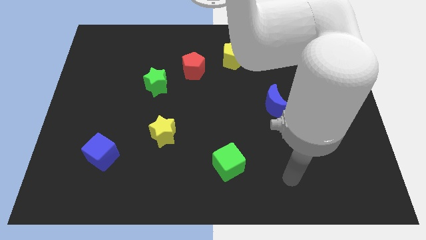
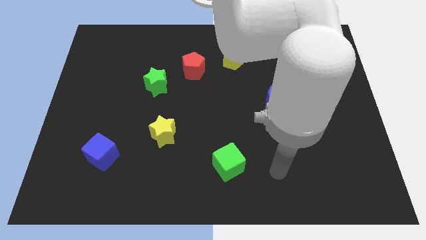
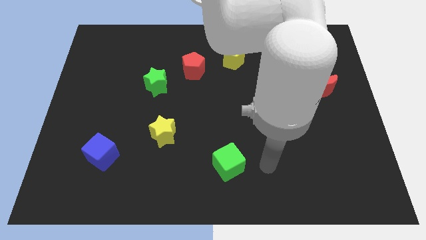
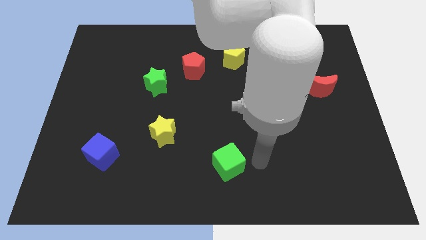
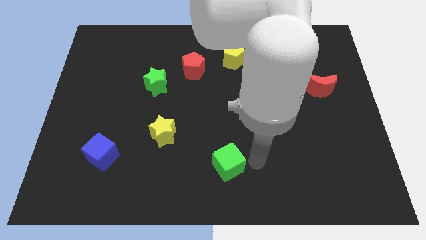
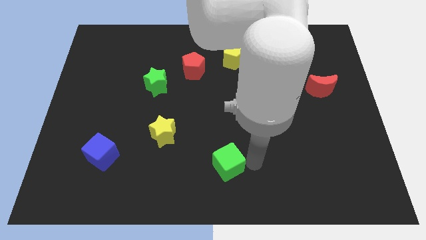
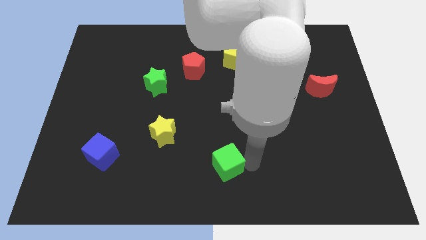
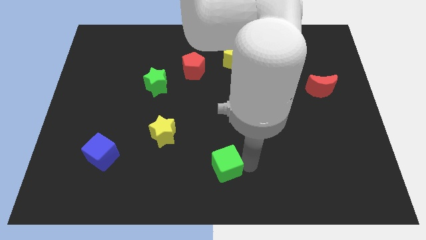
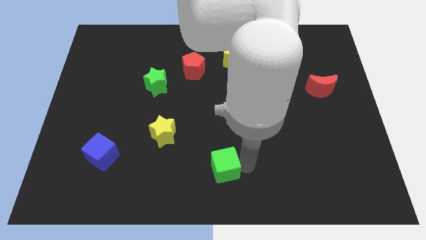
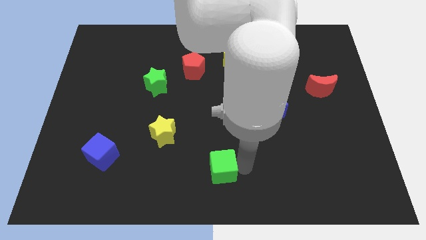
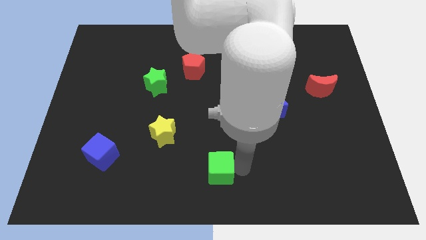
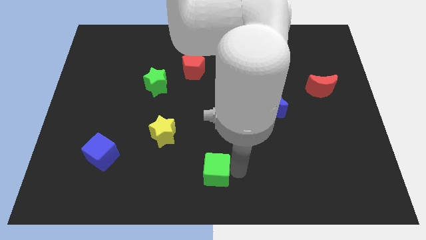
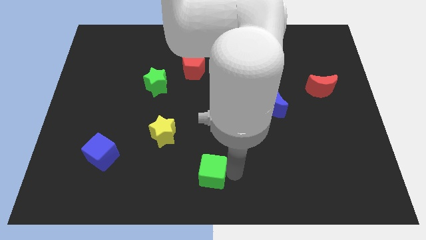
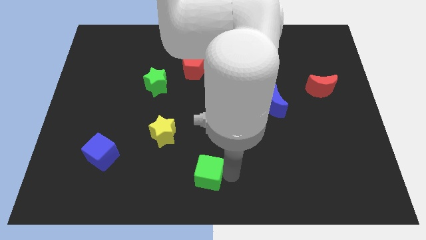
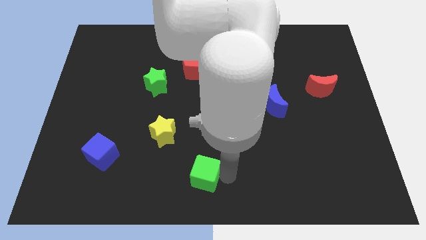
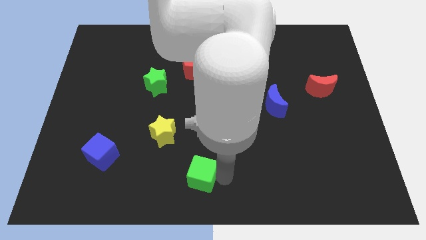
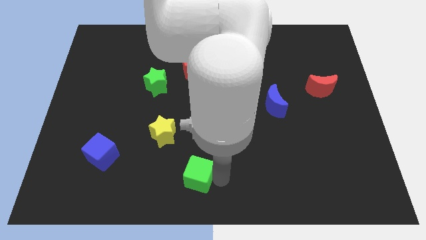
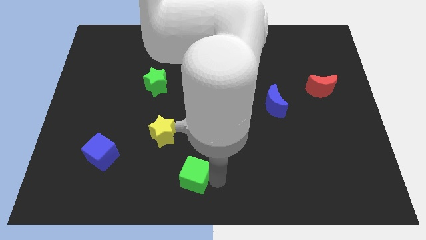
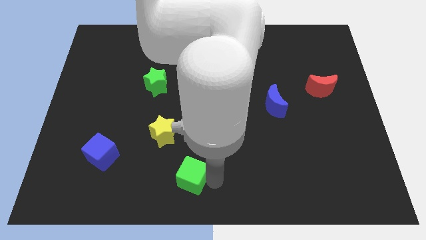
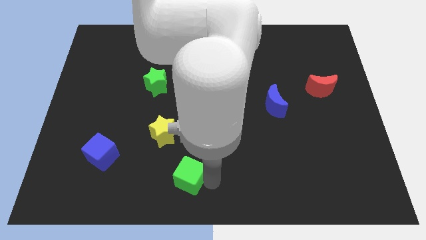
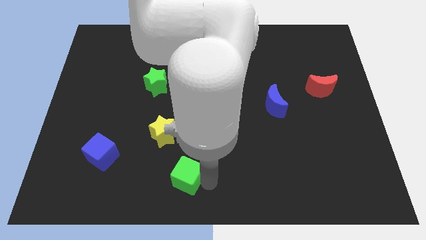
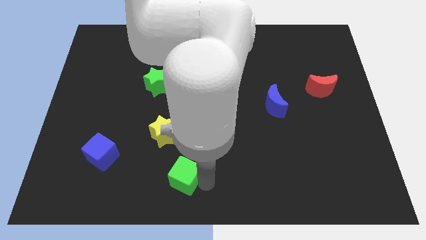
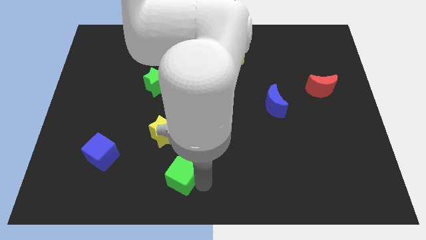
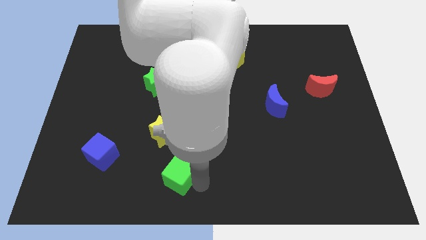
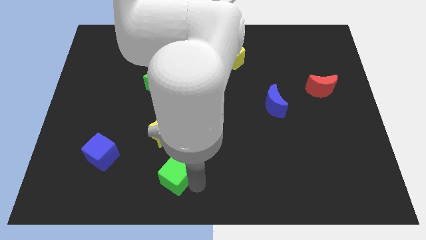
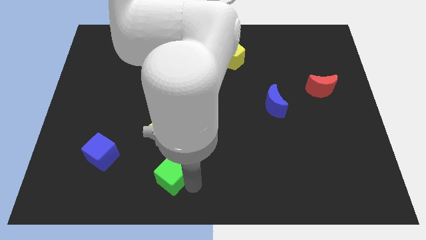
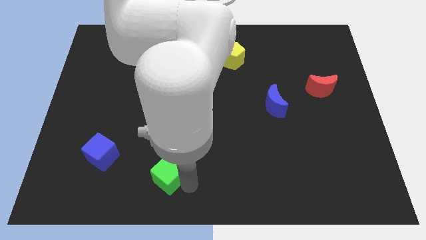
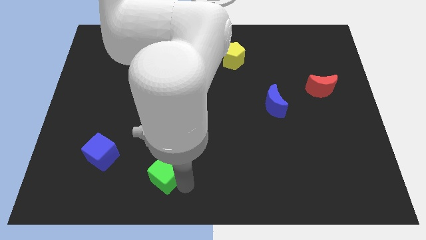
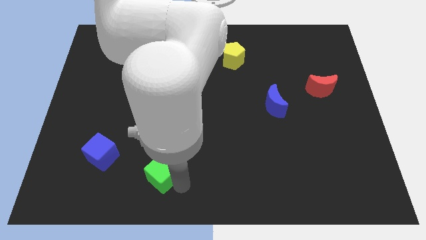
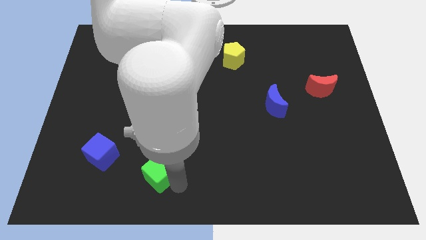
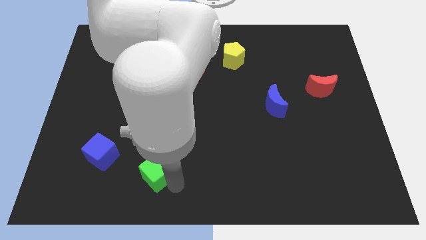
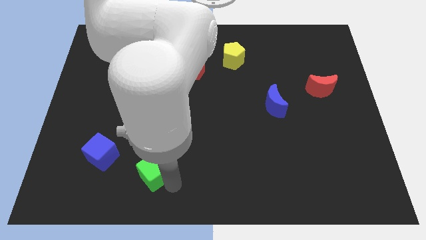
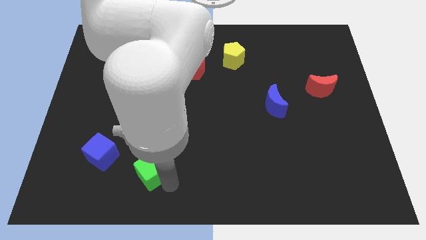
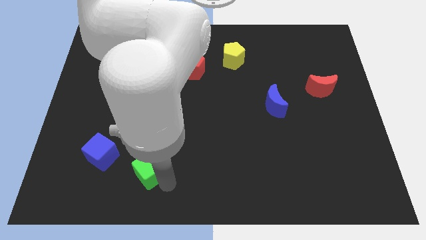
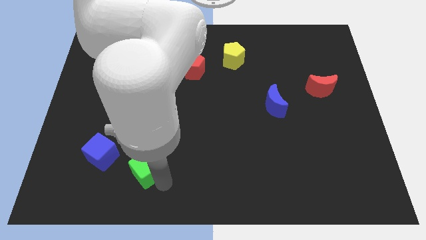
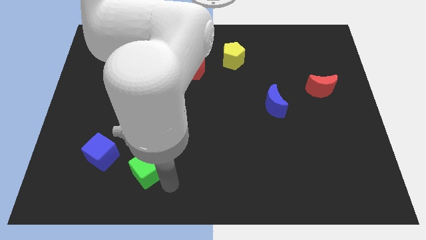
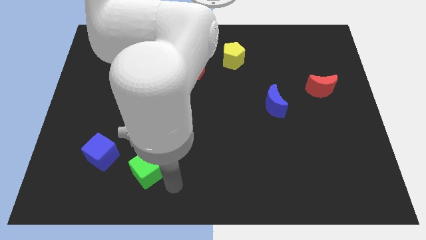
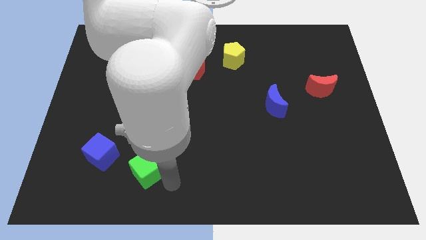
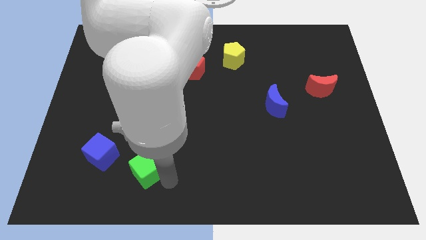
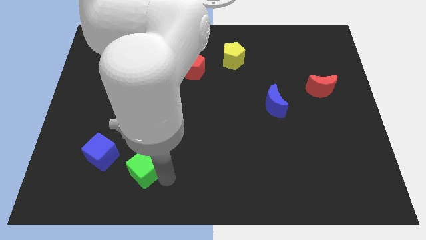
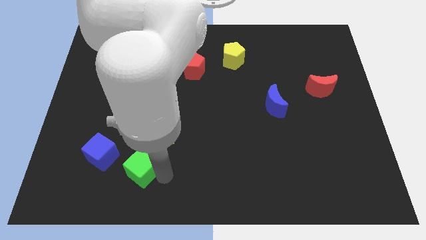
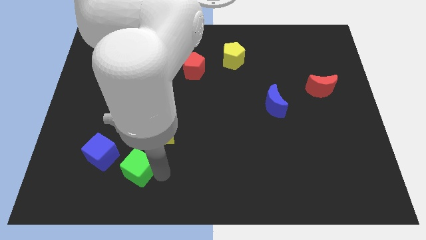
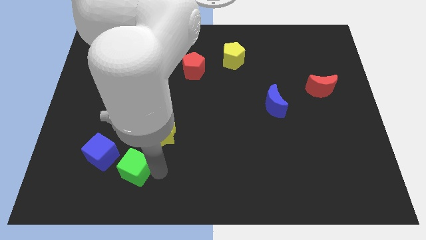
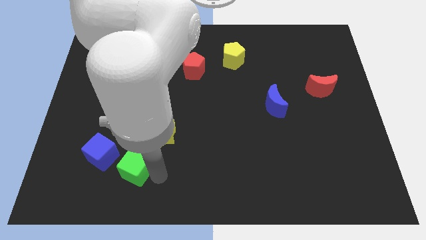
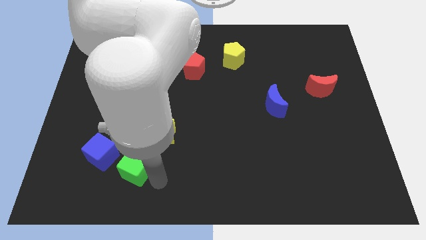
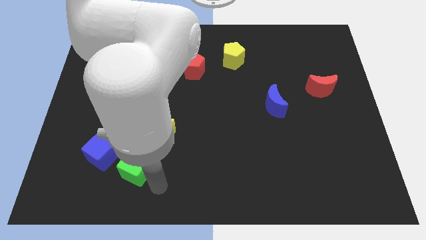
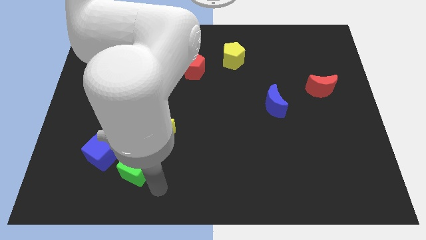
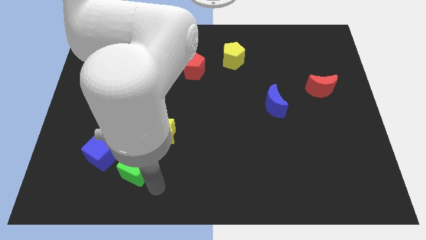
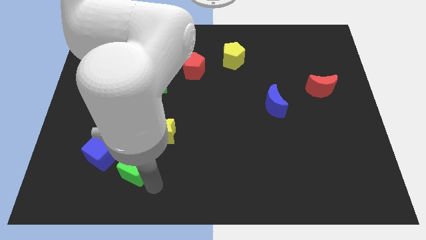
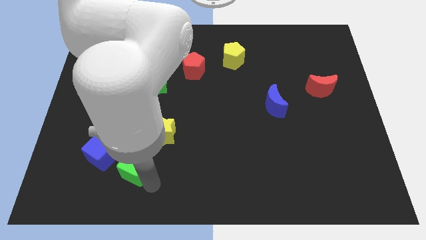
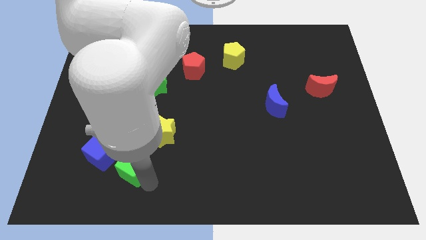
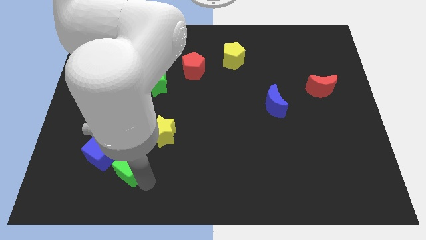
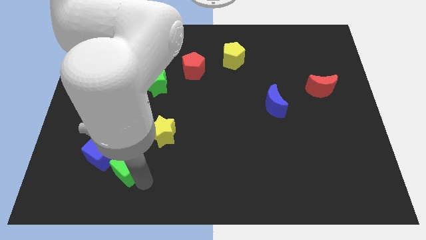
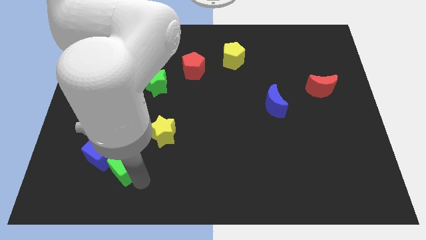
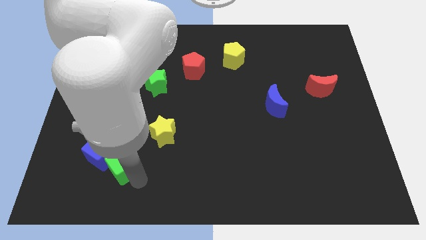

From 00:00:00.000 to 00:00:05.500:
move the green cube to the blue cube

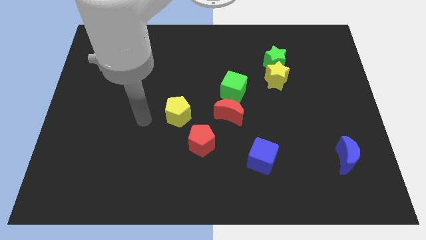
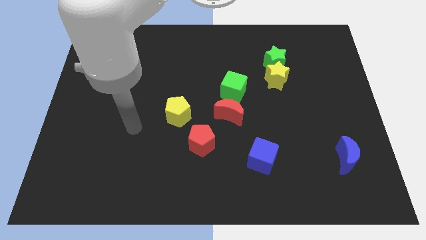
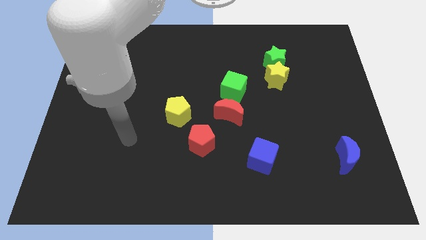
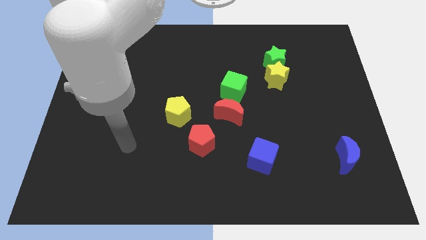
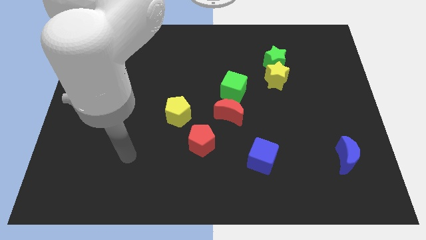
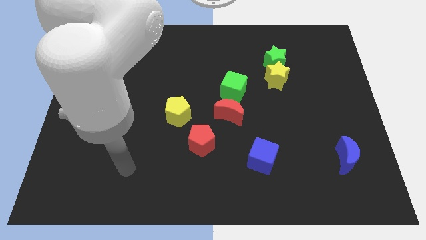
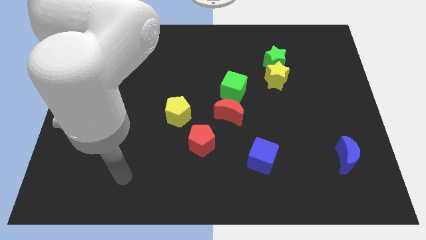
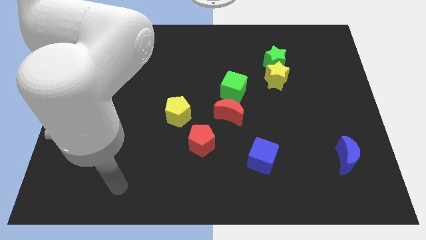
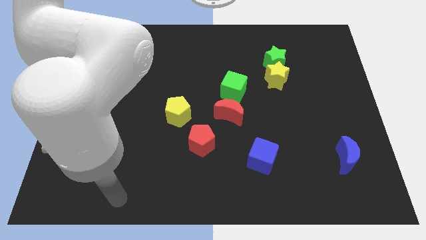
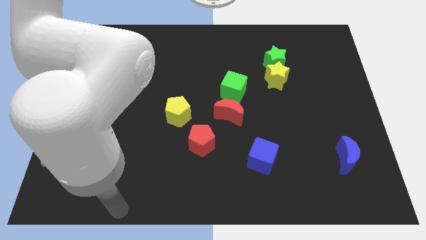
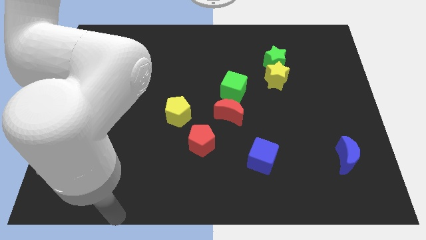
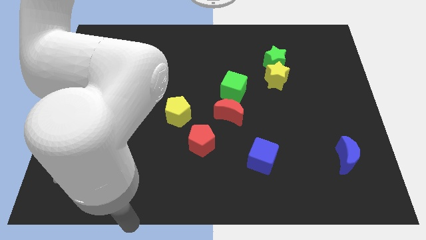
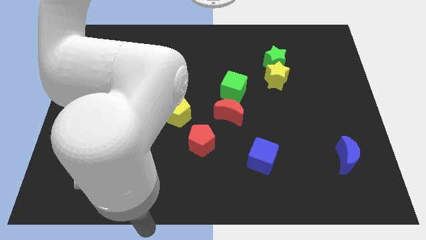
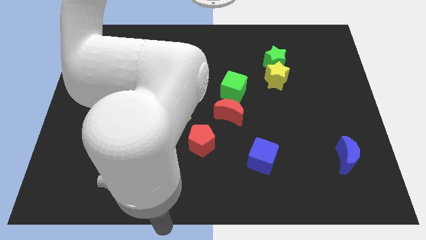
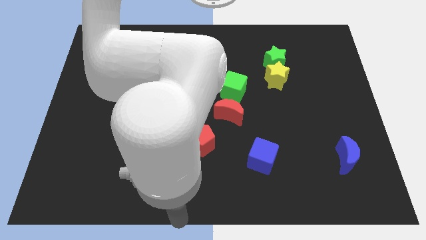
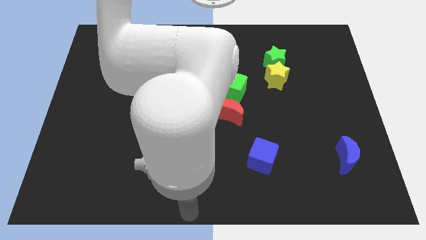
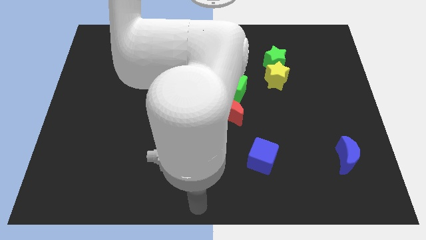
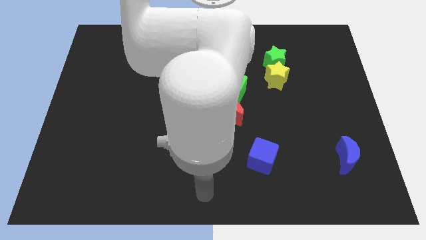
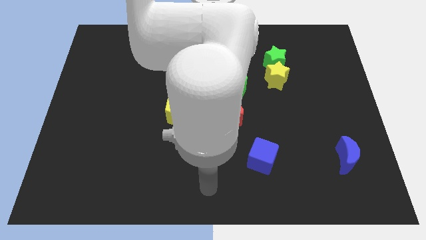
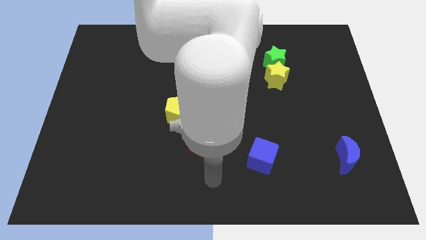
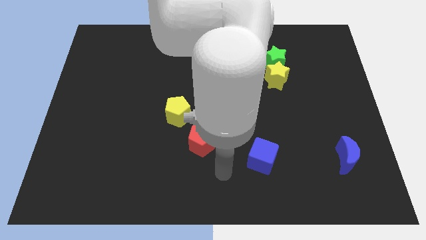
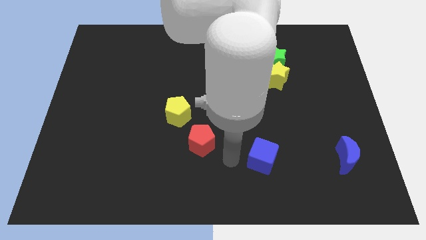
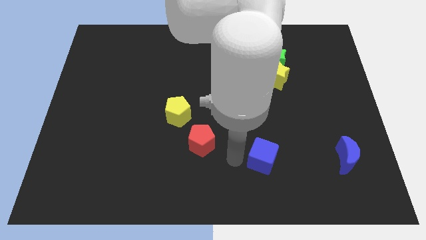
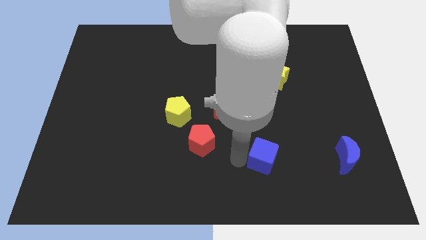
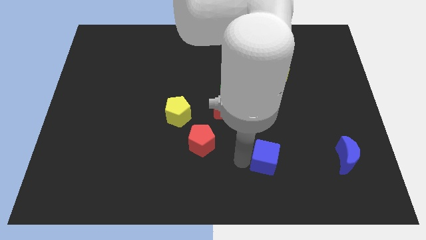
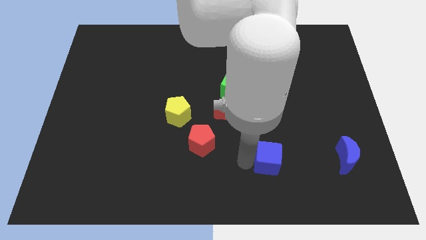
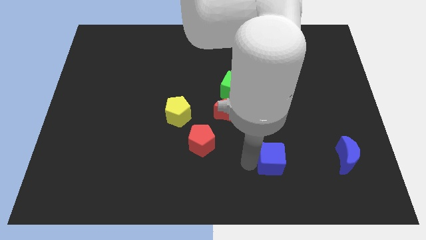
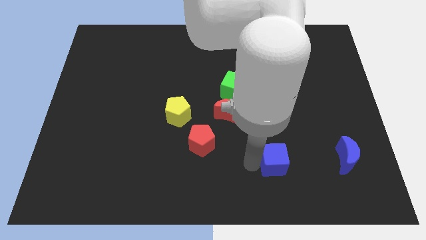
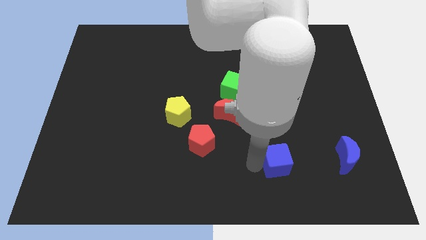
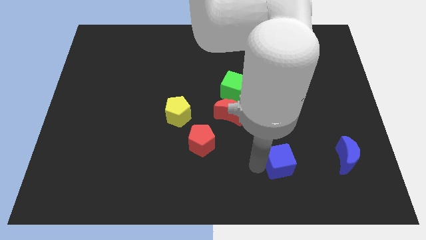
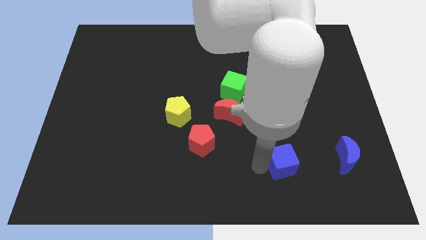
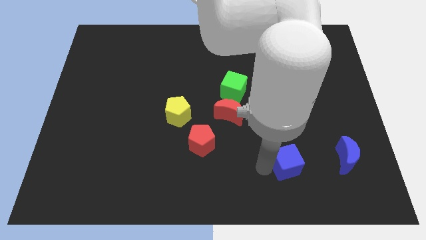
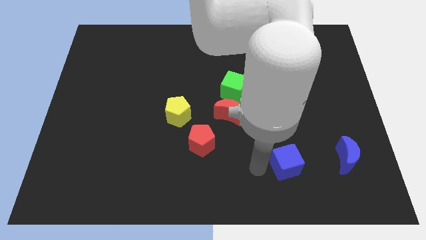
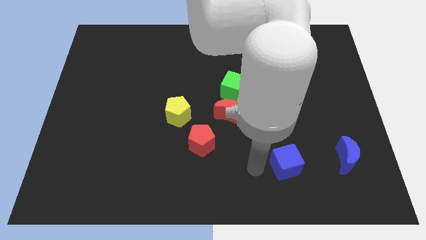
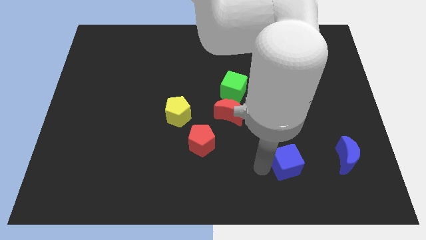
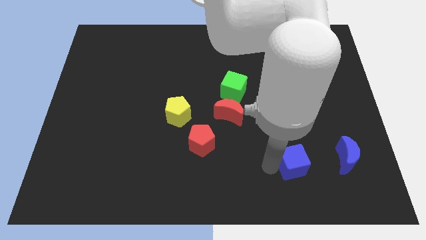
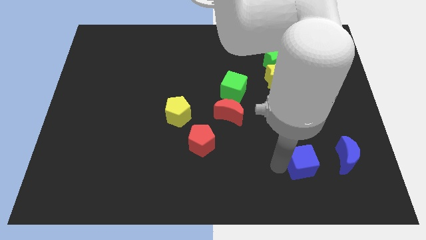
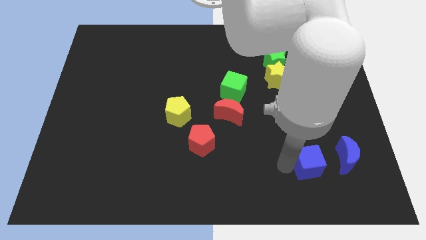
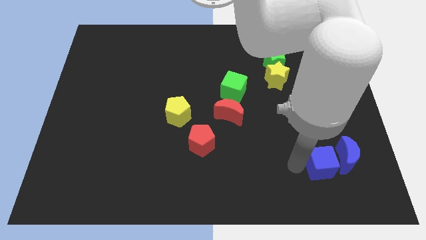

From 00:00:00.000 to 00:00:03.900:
put the blue cube next to the blue moon
